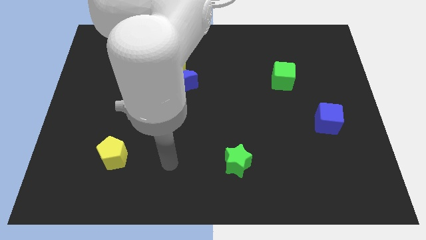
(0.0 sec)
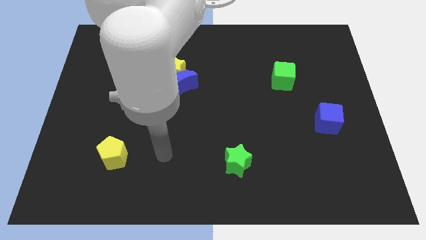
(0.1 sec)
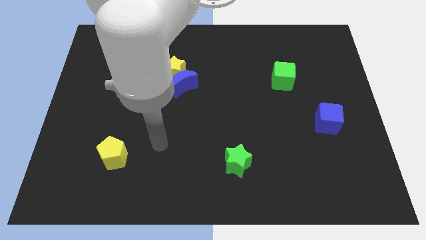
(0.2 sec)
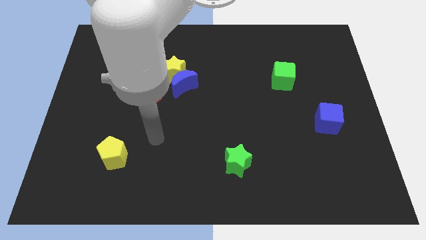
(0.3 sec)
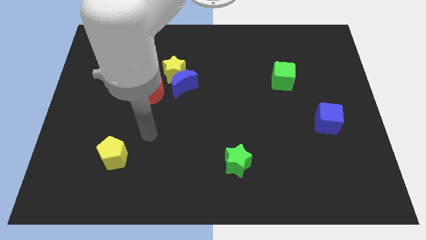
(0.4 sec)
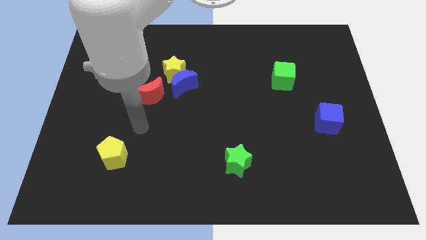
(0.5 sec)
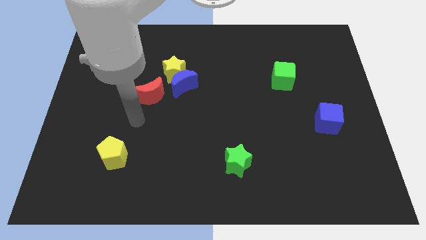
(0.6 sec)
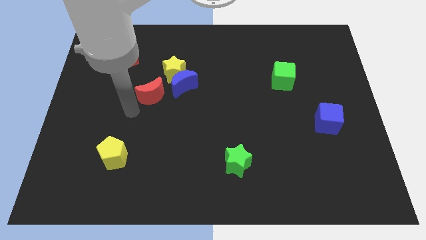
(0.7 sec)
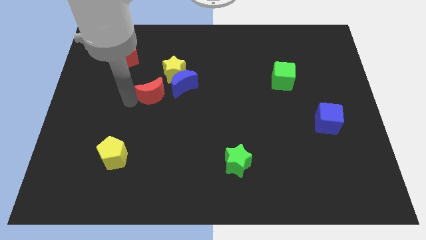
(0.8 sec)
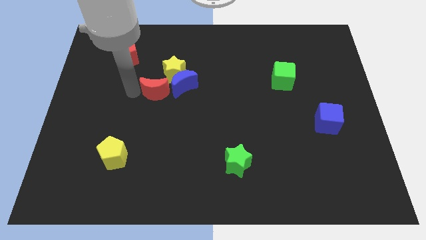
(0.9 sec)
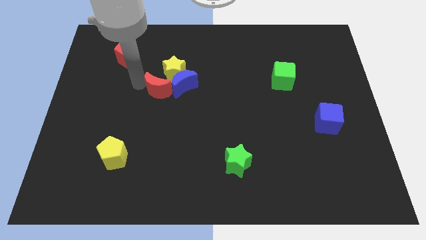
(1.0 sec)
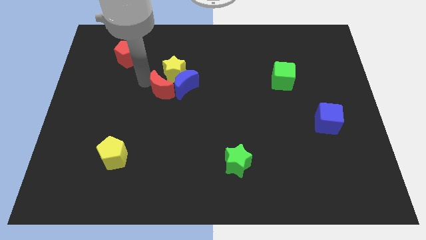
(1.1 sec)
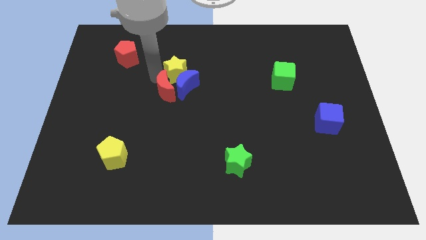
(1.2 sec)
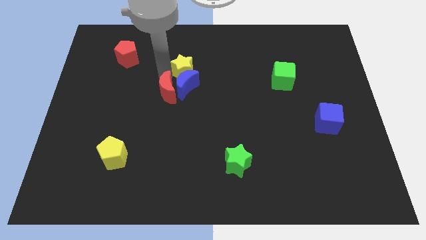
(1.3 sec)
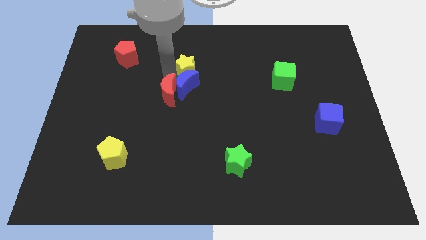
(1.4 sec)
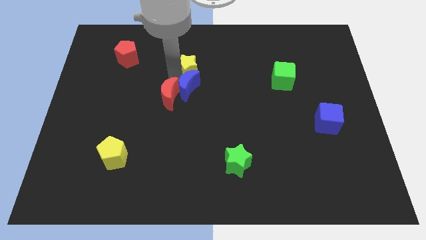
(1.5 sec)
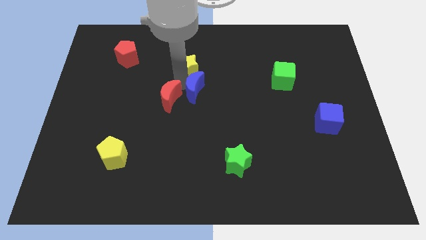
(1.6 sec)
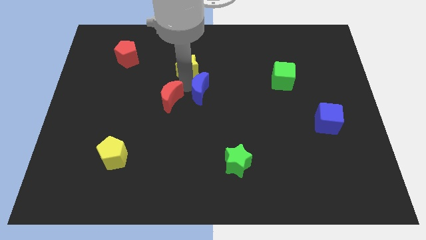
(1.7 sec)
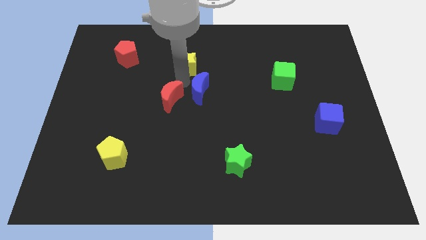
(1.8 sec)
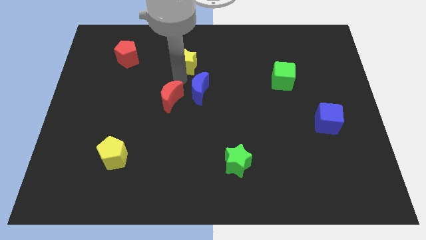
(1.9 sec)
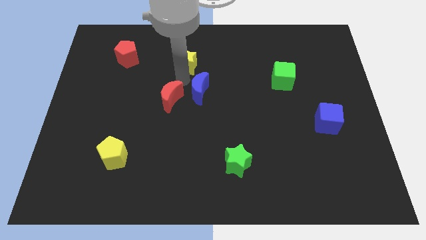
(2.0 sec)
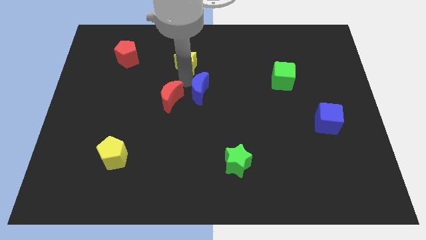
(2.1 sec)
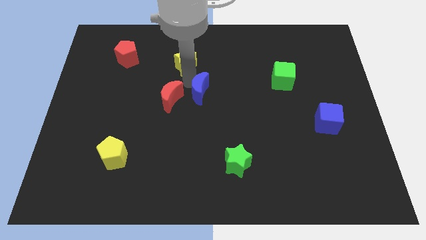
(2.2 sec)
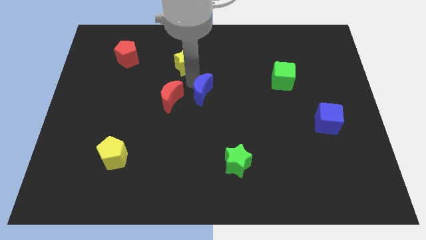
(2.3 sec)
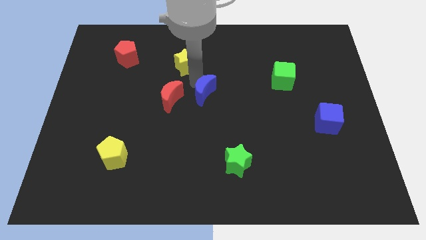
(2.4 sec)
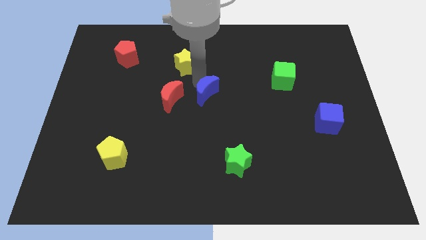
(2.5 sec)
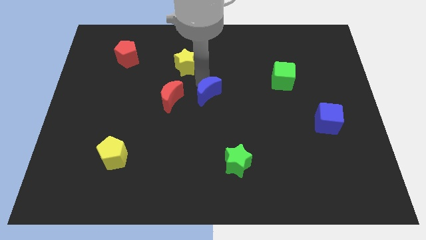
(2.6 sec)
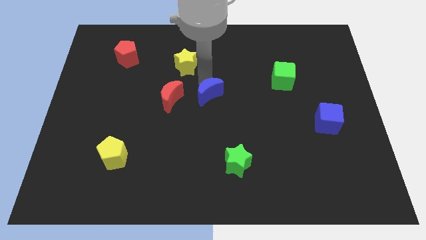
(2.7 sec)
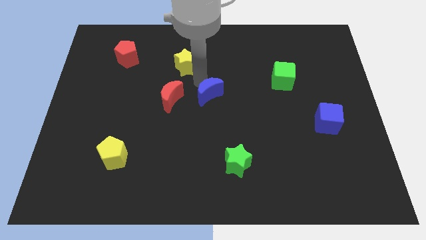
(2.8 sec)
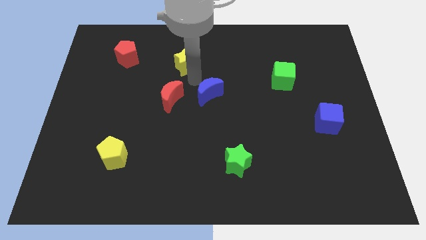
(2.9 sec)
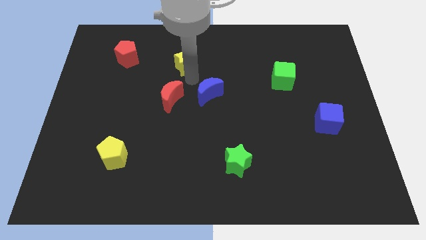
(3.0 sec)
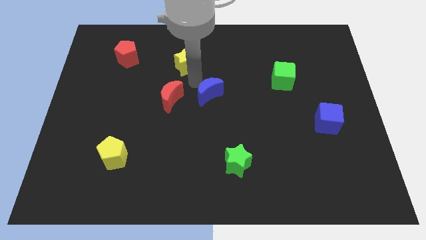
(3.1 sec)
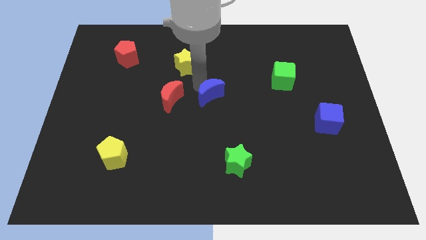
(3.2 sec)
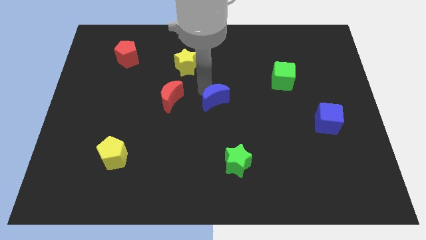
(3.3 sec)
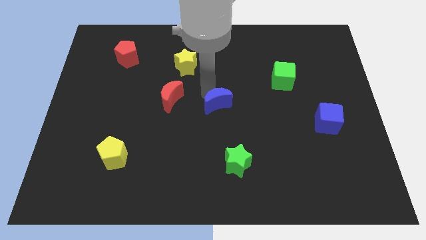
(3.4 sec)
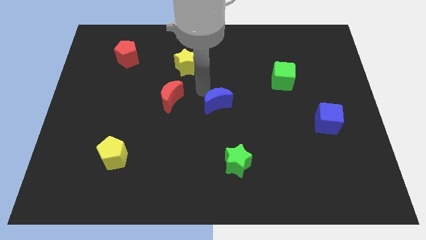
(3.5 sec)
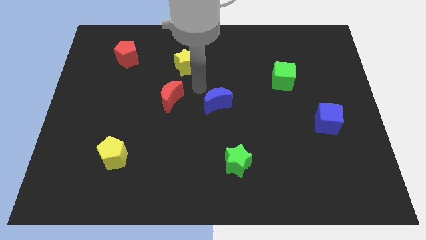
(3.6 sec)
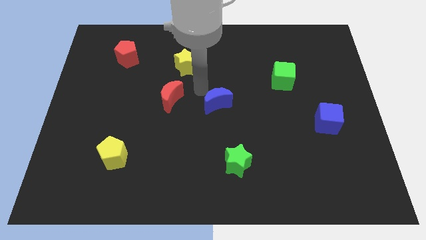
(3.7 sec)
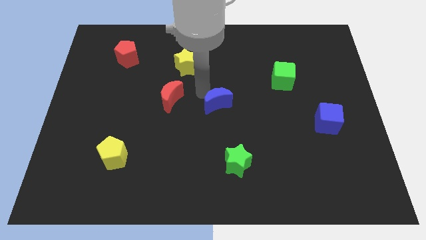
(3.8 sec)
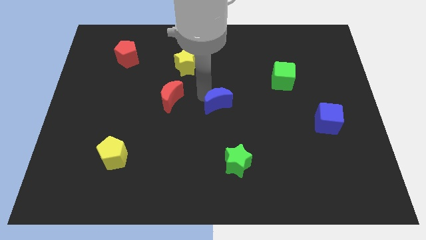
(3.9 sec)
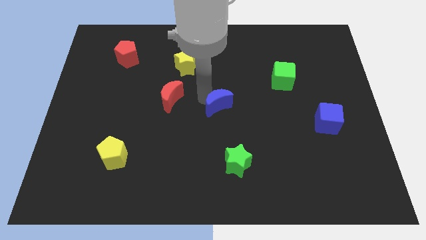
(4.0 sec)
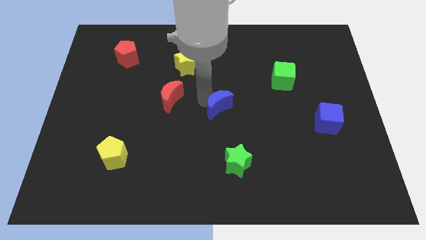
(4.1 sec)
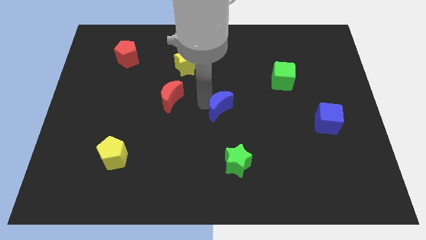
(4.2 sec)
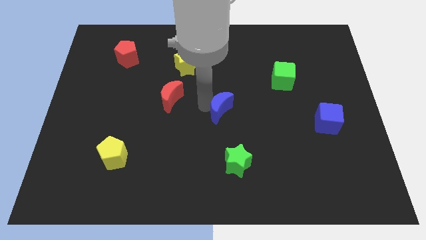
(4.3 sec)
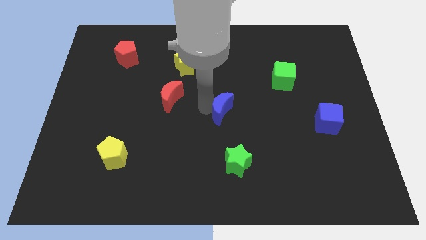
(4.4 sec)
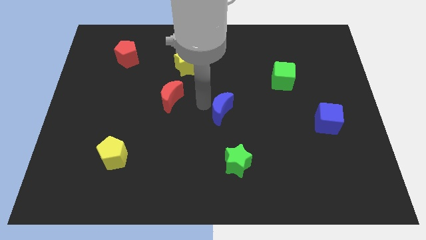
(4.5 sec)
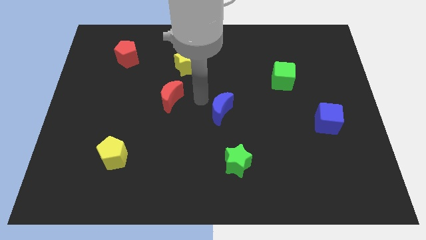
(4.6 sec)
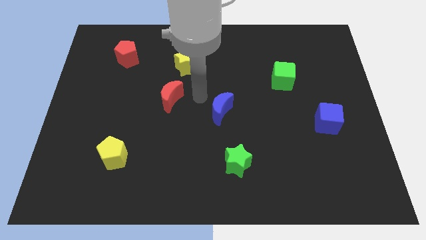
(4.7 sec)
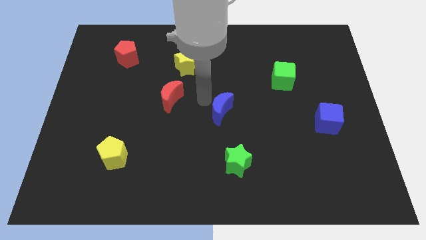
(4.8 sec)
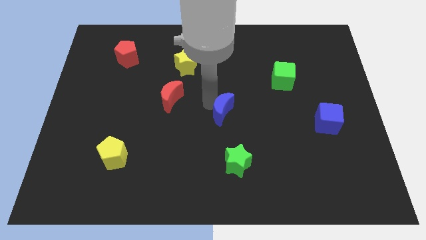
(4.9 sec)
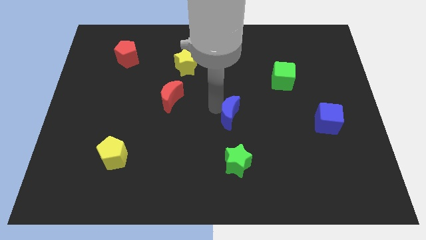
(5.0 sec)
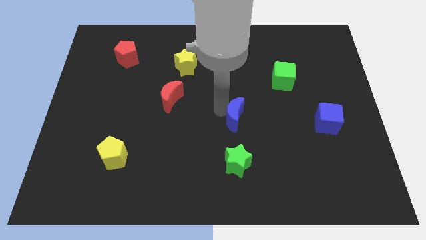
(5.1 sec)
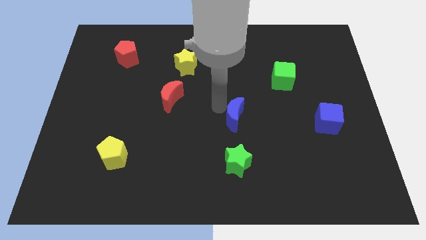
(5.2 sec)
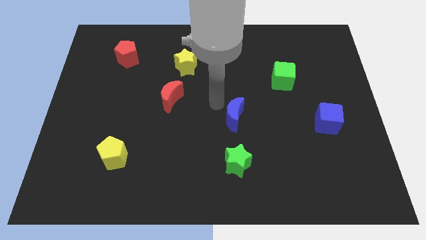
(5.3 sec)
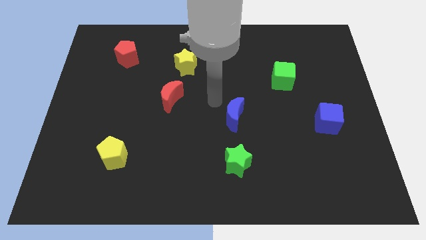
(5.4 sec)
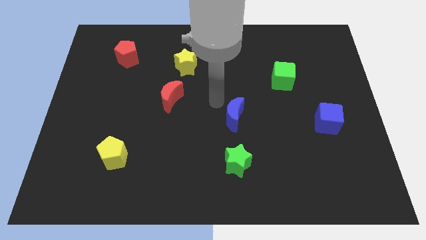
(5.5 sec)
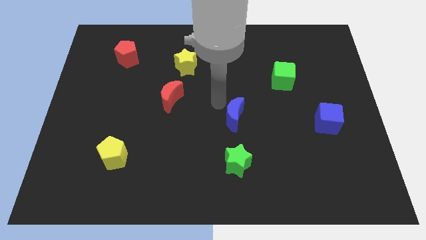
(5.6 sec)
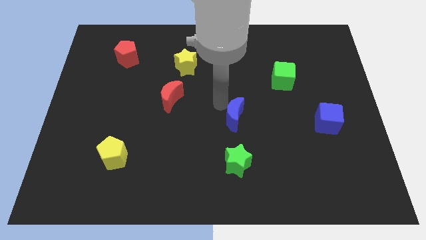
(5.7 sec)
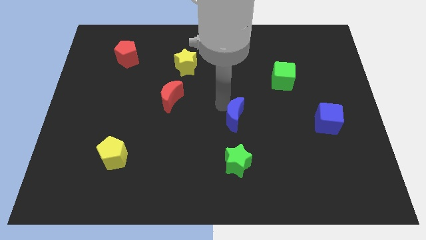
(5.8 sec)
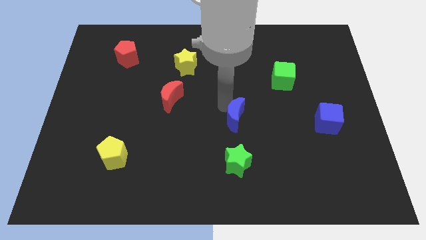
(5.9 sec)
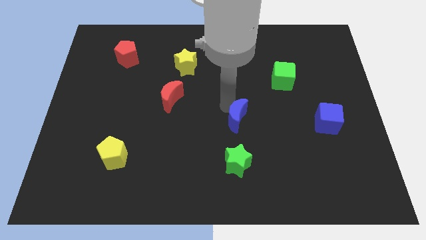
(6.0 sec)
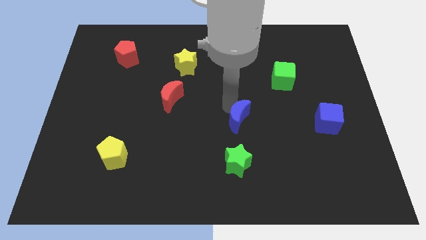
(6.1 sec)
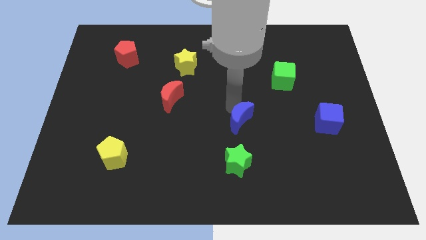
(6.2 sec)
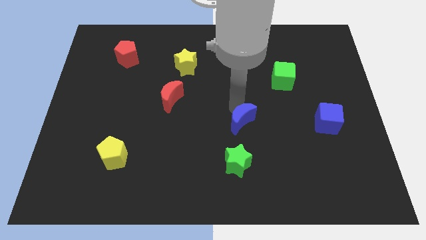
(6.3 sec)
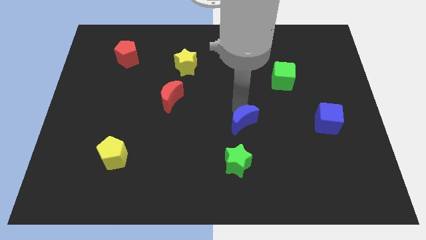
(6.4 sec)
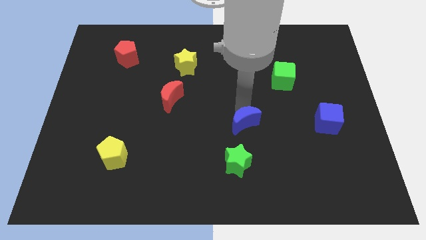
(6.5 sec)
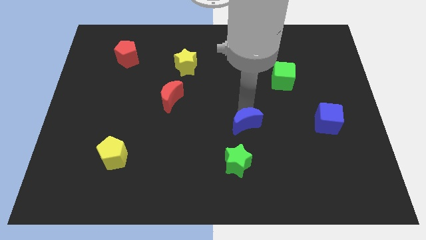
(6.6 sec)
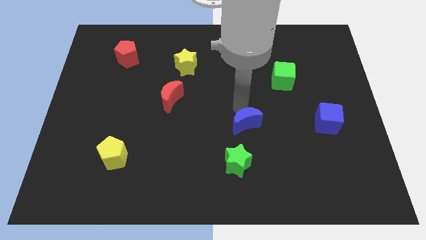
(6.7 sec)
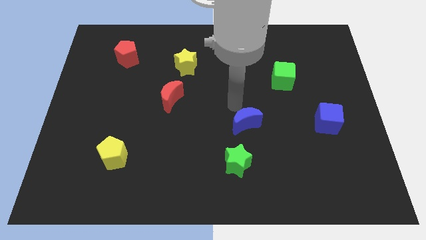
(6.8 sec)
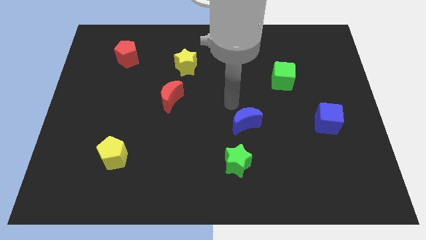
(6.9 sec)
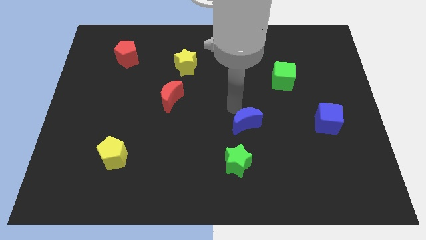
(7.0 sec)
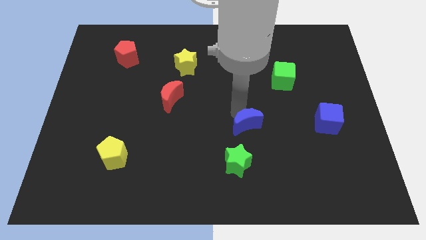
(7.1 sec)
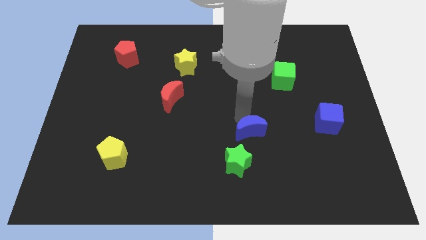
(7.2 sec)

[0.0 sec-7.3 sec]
move the blue moon downwards and right

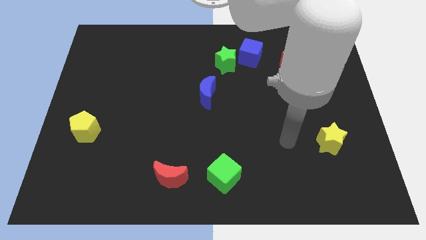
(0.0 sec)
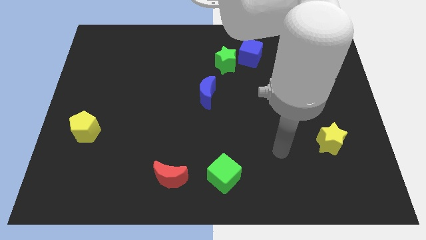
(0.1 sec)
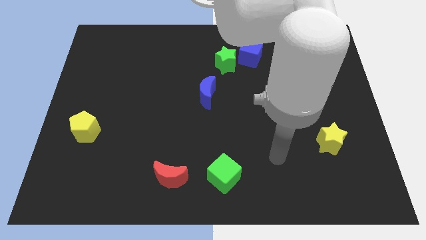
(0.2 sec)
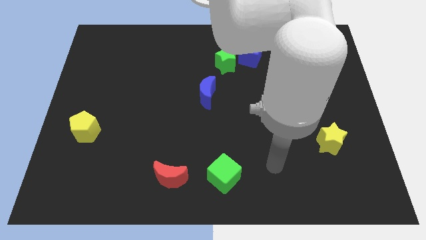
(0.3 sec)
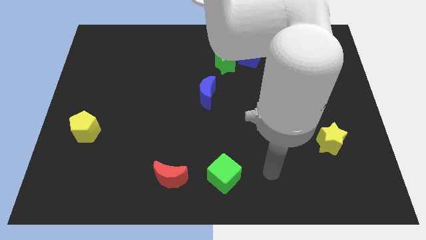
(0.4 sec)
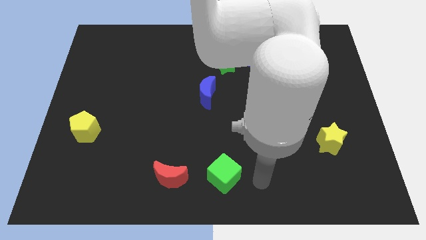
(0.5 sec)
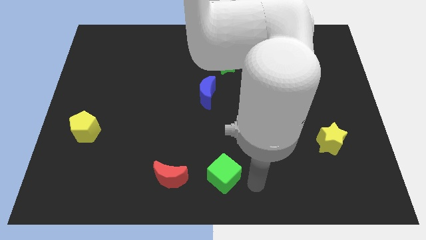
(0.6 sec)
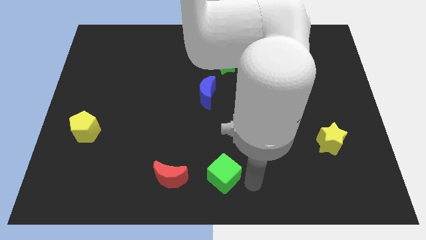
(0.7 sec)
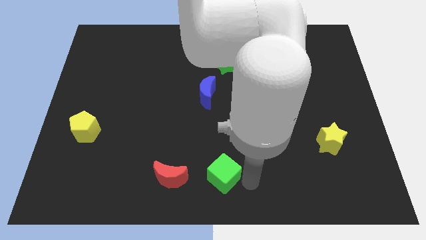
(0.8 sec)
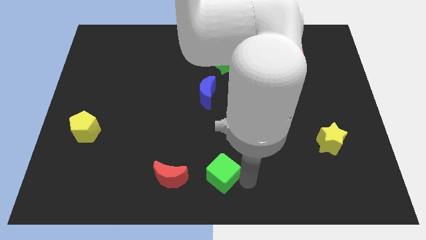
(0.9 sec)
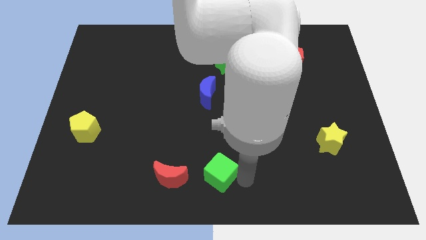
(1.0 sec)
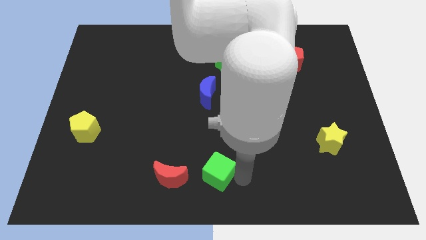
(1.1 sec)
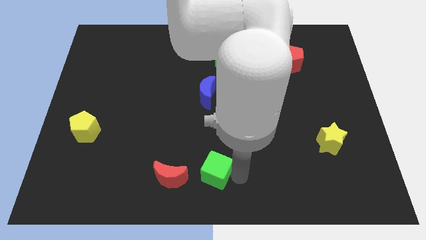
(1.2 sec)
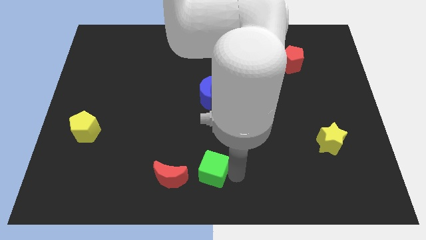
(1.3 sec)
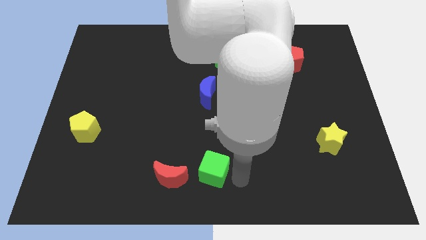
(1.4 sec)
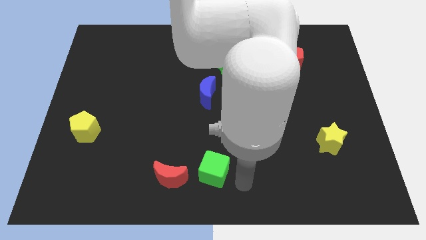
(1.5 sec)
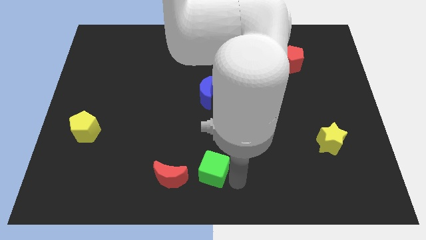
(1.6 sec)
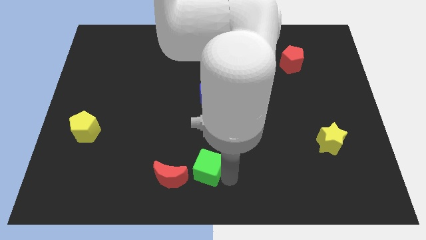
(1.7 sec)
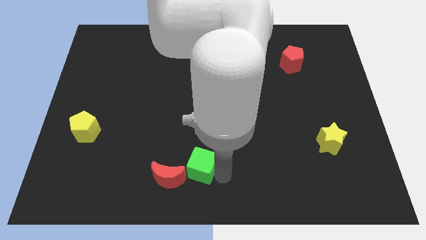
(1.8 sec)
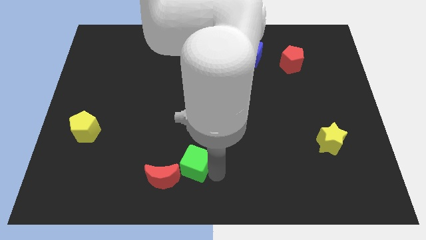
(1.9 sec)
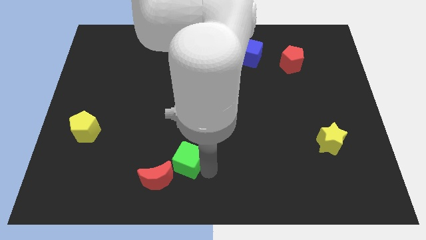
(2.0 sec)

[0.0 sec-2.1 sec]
slide the green cube left a little
